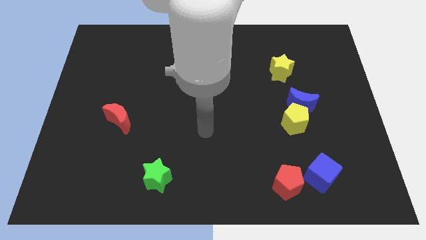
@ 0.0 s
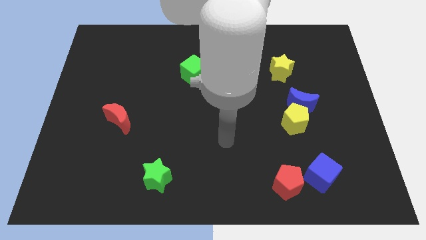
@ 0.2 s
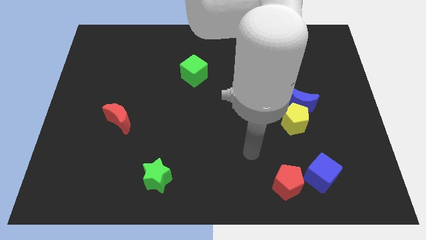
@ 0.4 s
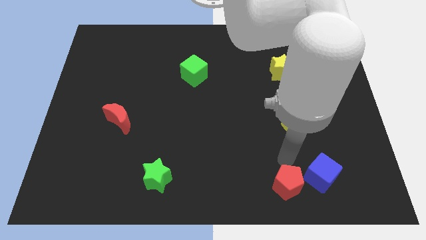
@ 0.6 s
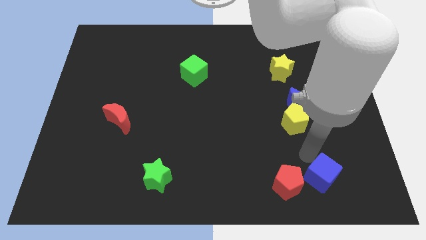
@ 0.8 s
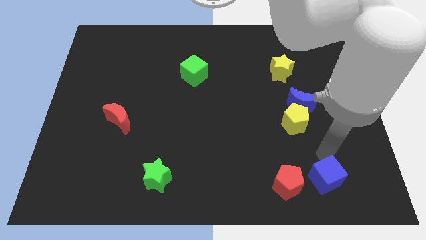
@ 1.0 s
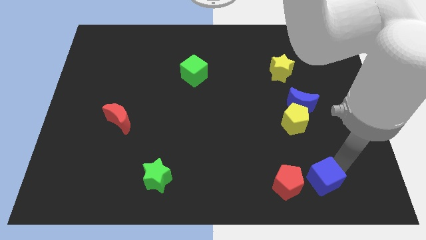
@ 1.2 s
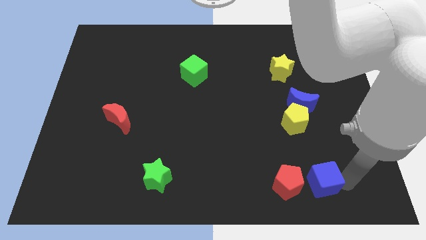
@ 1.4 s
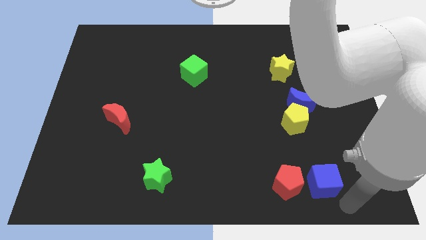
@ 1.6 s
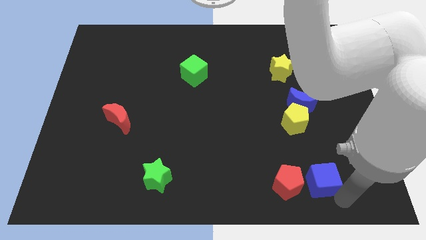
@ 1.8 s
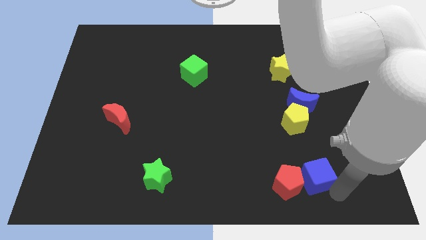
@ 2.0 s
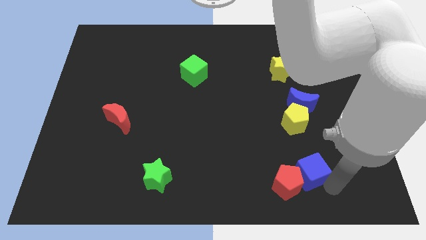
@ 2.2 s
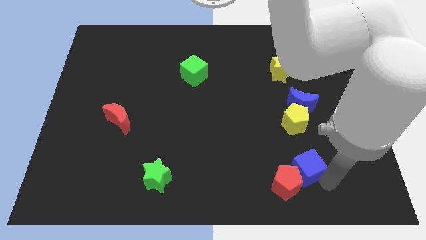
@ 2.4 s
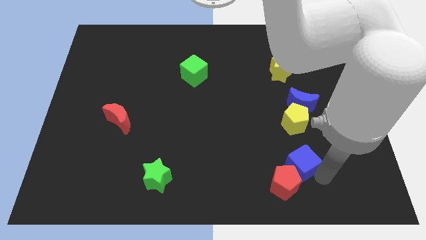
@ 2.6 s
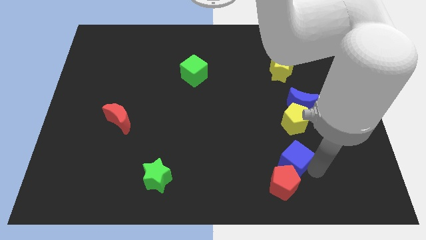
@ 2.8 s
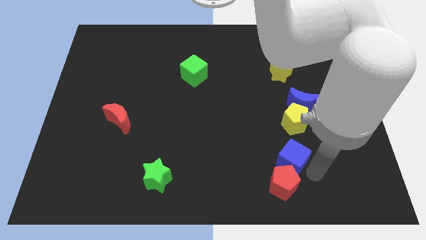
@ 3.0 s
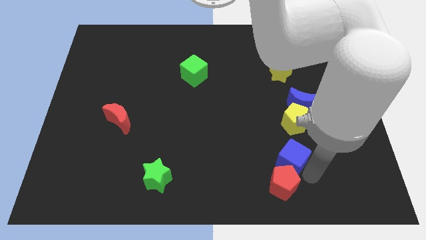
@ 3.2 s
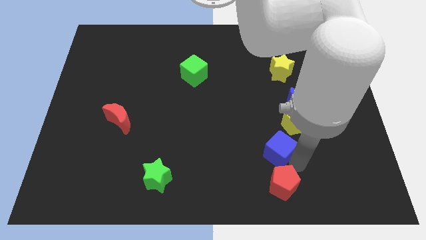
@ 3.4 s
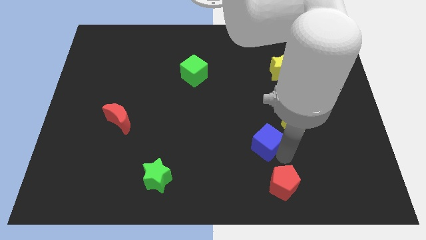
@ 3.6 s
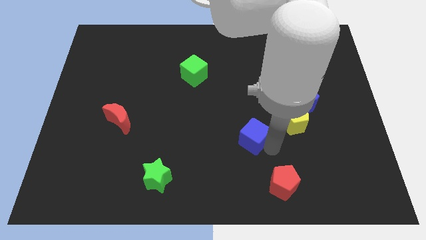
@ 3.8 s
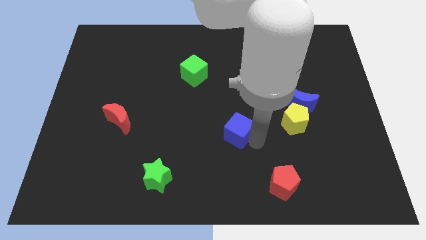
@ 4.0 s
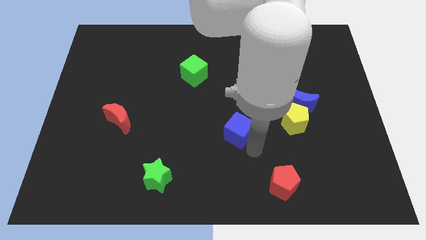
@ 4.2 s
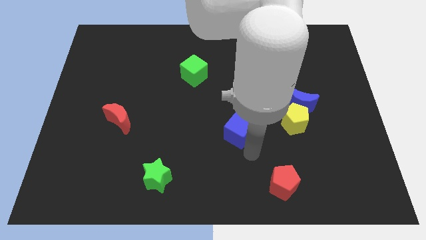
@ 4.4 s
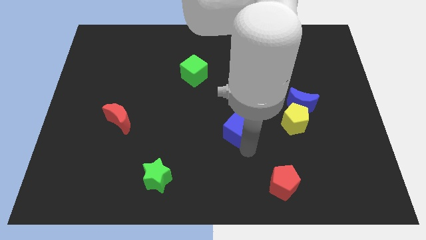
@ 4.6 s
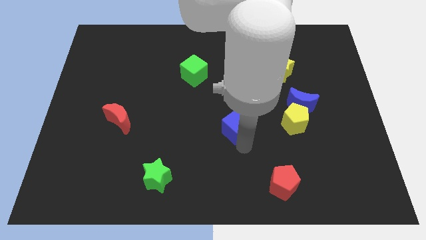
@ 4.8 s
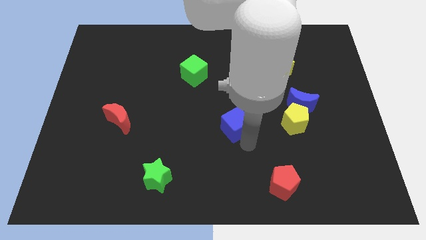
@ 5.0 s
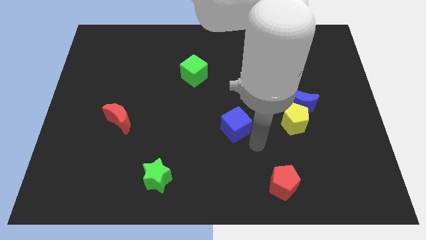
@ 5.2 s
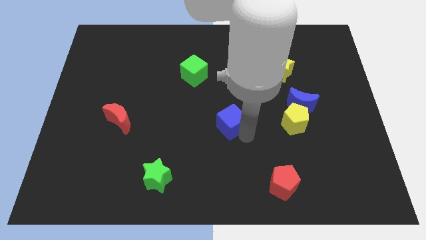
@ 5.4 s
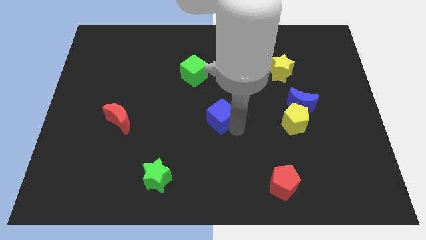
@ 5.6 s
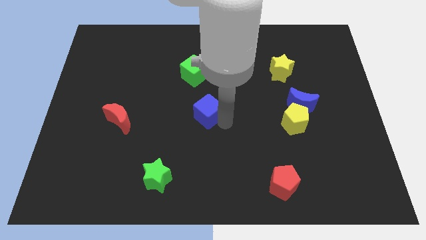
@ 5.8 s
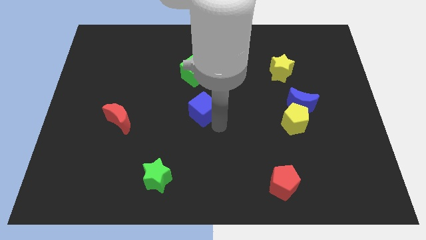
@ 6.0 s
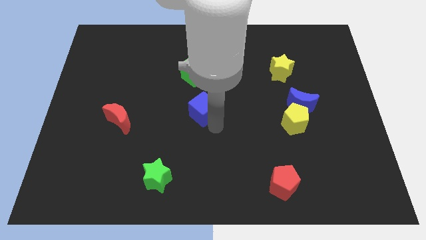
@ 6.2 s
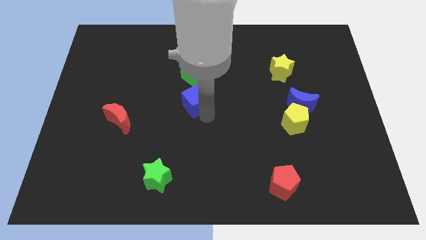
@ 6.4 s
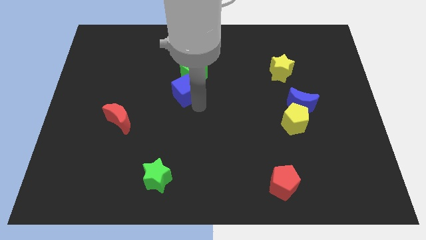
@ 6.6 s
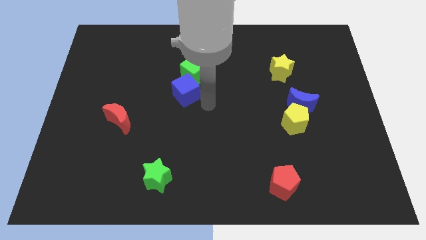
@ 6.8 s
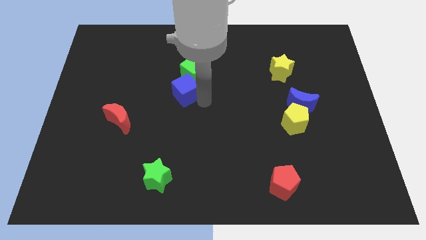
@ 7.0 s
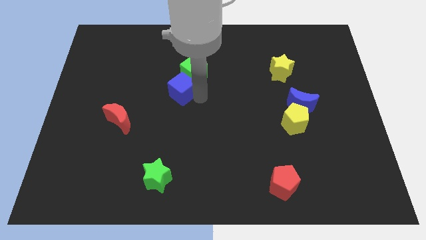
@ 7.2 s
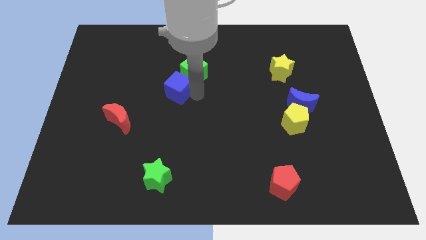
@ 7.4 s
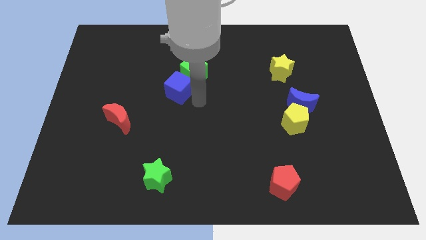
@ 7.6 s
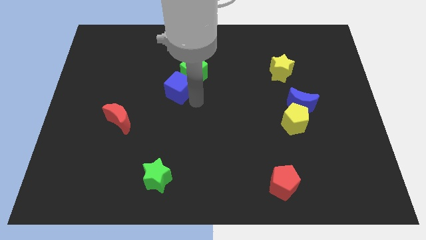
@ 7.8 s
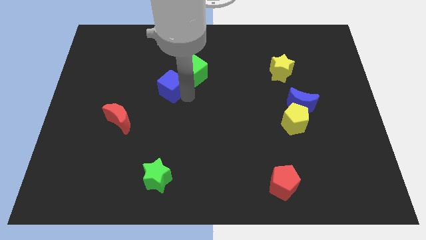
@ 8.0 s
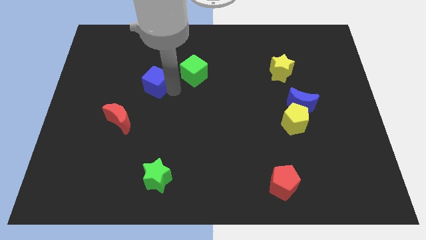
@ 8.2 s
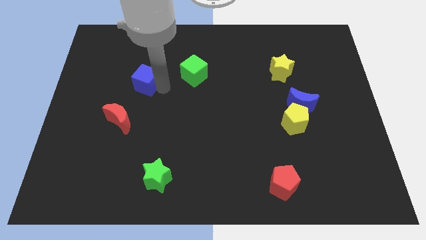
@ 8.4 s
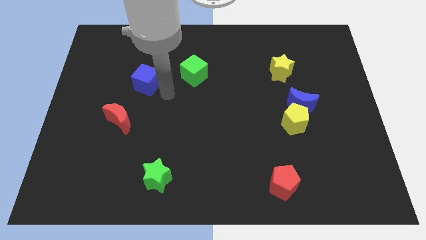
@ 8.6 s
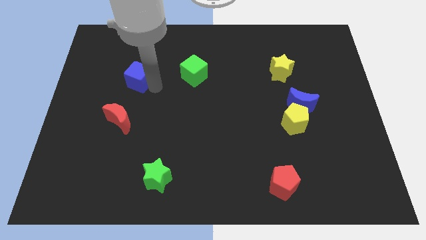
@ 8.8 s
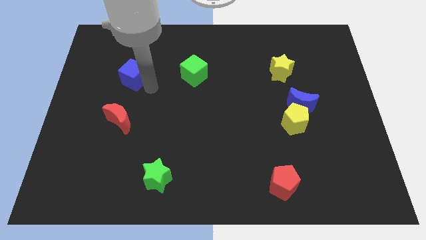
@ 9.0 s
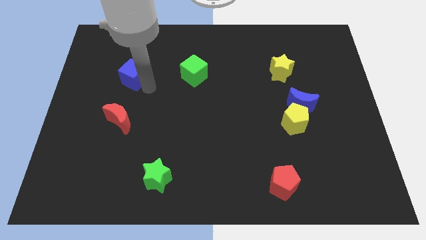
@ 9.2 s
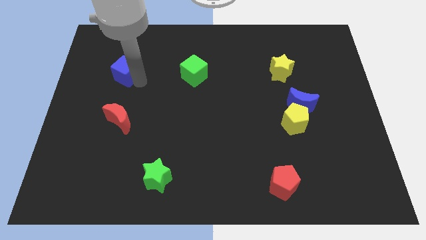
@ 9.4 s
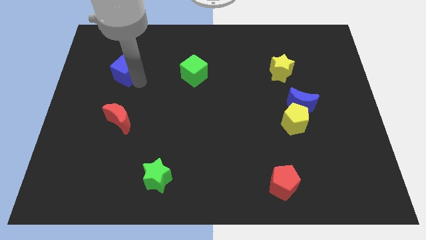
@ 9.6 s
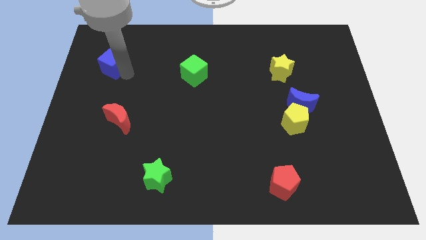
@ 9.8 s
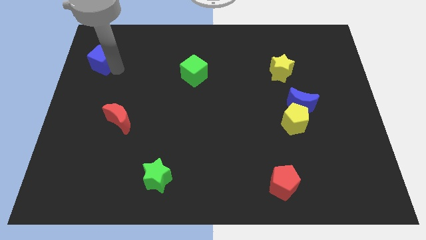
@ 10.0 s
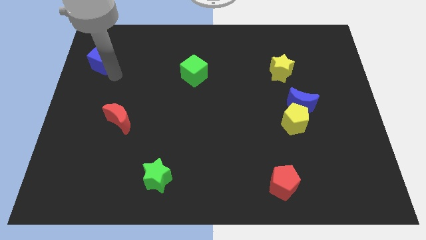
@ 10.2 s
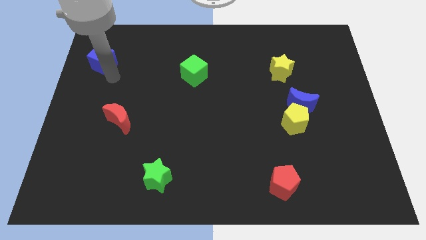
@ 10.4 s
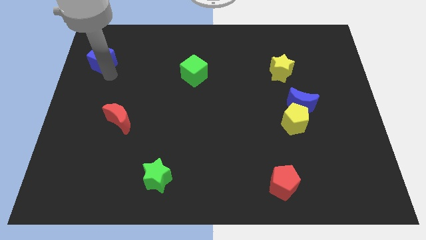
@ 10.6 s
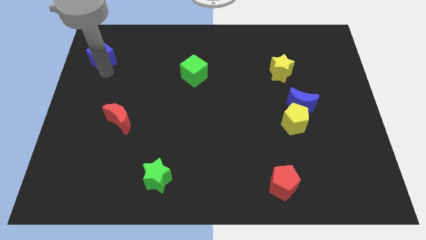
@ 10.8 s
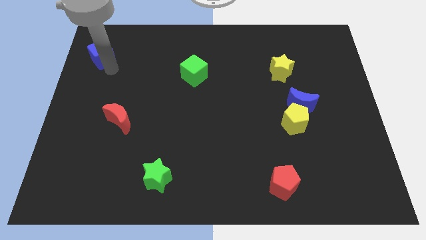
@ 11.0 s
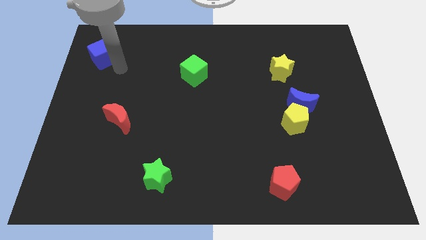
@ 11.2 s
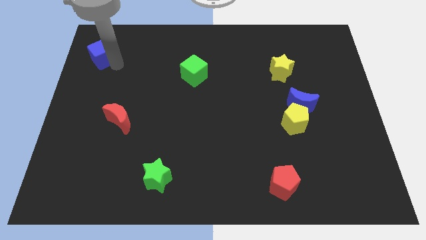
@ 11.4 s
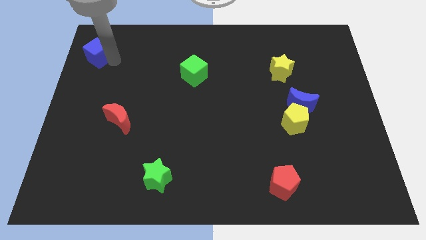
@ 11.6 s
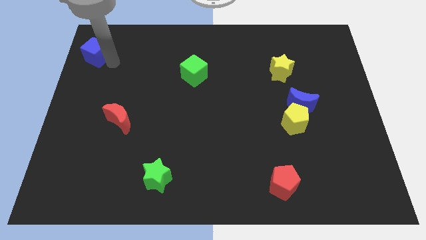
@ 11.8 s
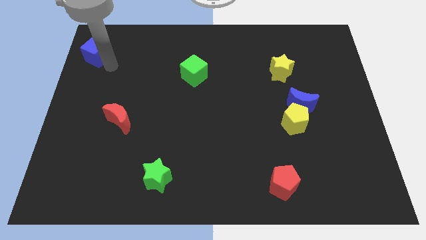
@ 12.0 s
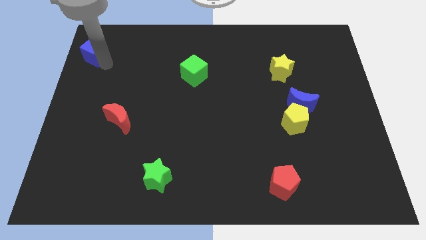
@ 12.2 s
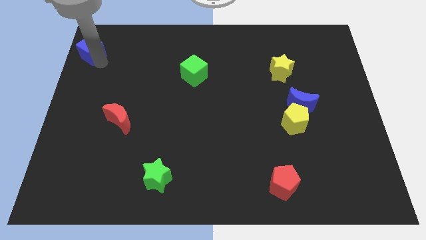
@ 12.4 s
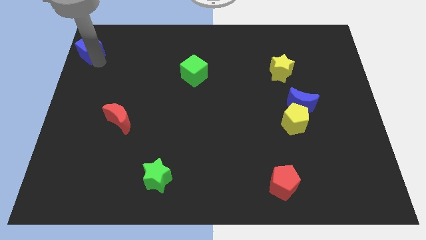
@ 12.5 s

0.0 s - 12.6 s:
put the blue cube to the upper left corner
